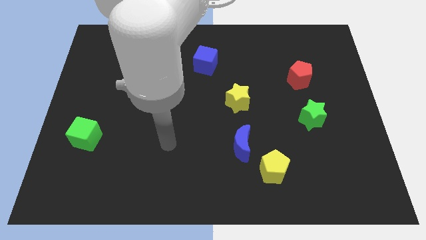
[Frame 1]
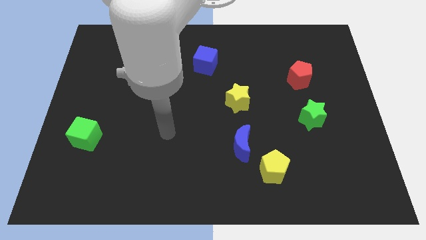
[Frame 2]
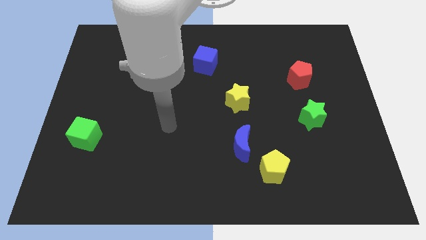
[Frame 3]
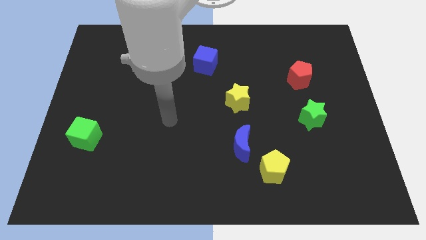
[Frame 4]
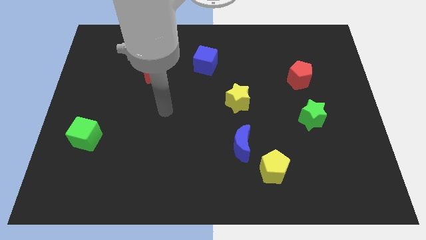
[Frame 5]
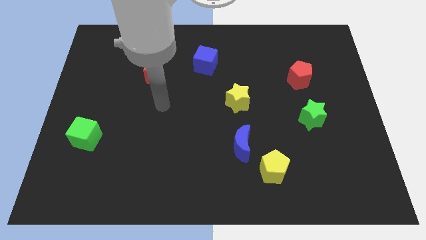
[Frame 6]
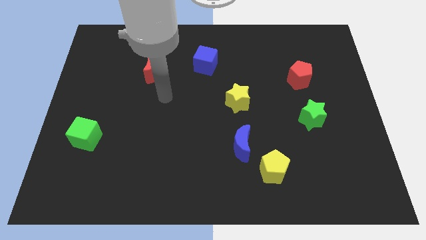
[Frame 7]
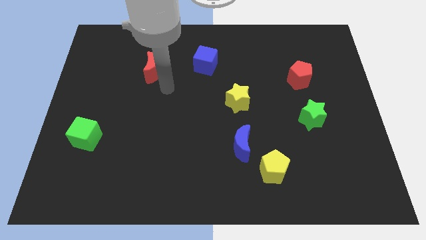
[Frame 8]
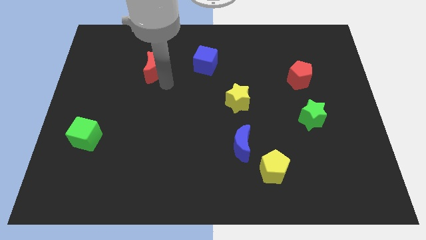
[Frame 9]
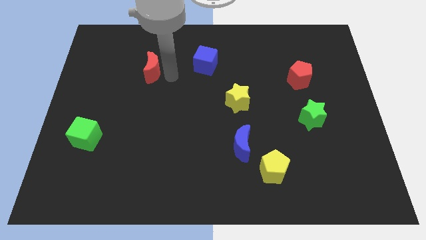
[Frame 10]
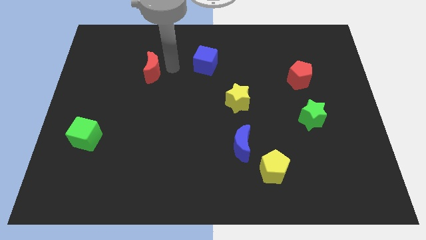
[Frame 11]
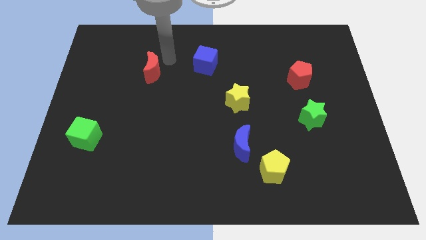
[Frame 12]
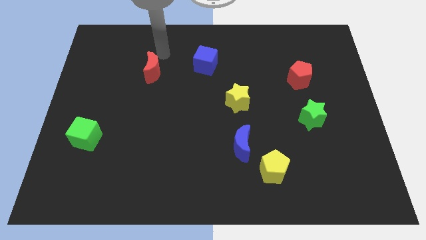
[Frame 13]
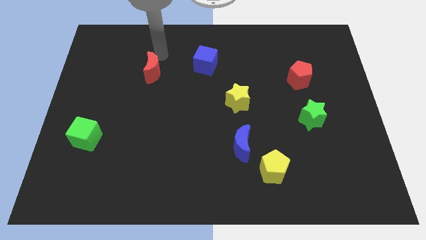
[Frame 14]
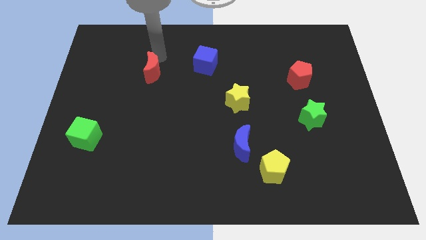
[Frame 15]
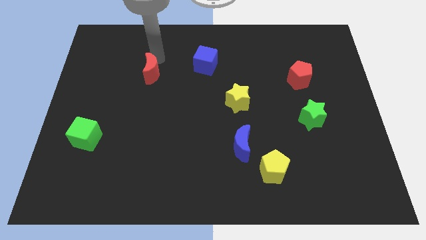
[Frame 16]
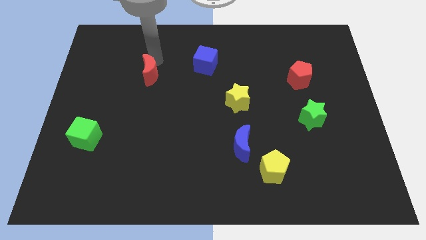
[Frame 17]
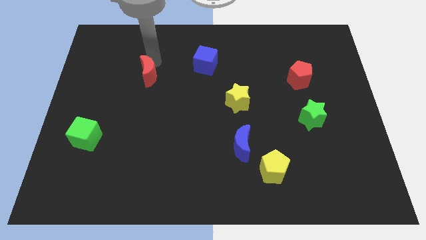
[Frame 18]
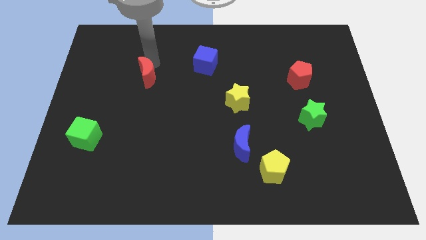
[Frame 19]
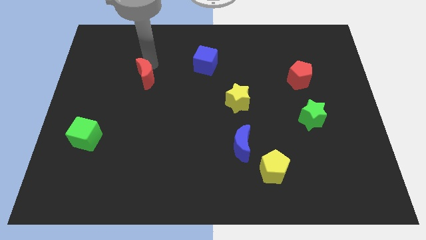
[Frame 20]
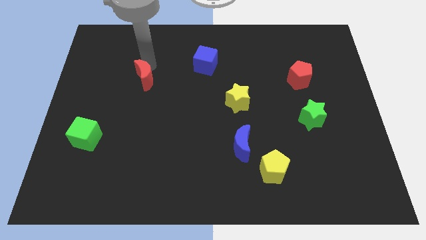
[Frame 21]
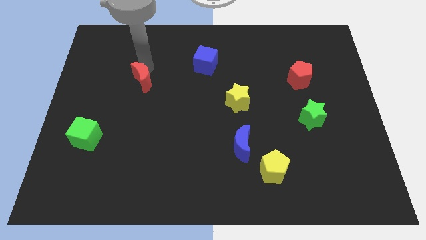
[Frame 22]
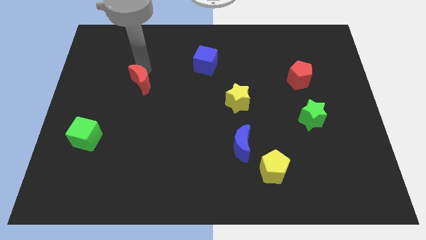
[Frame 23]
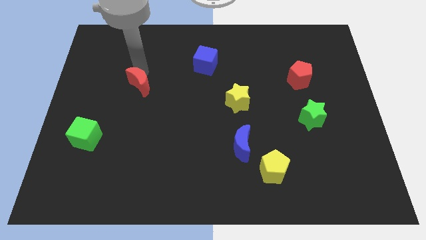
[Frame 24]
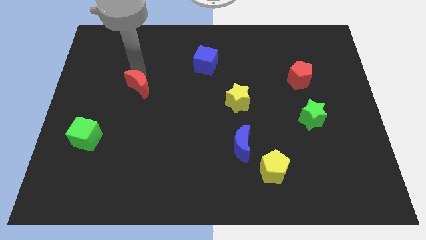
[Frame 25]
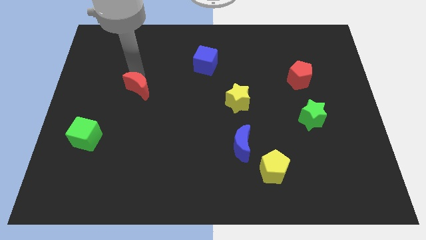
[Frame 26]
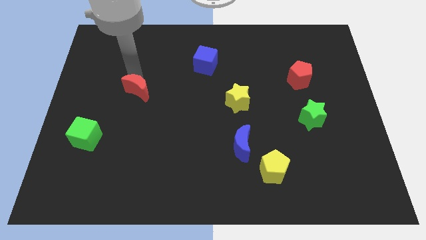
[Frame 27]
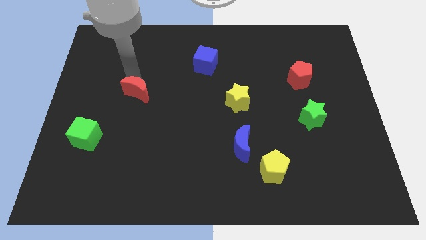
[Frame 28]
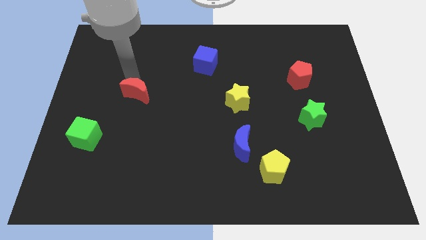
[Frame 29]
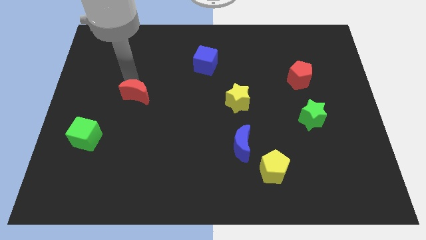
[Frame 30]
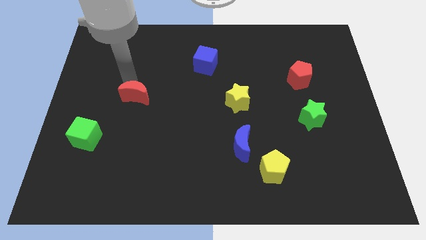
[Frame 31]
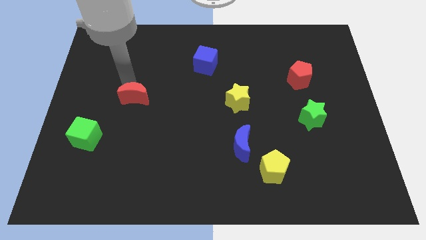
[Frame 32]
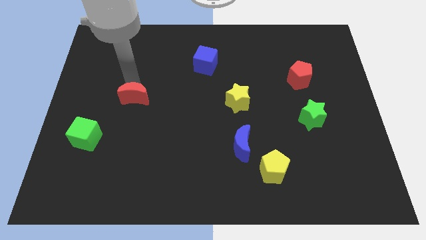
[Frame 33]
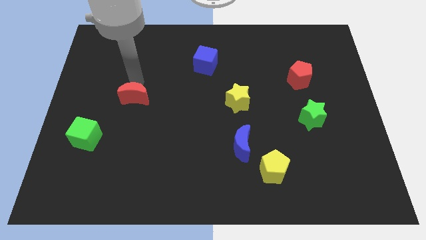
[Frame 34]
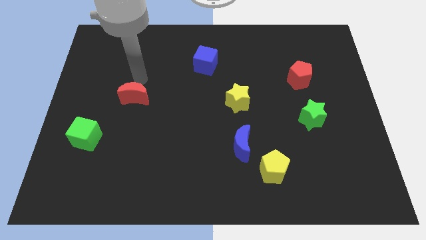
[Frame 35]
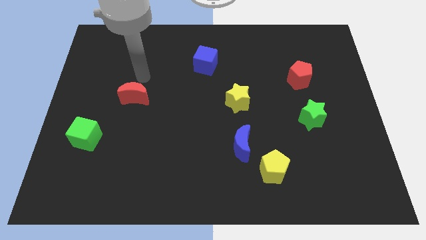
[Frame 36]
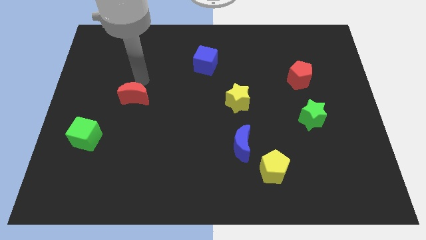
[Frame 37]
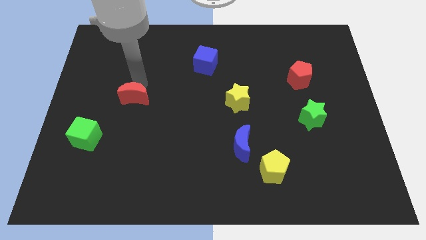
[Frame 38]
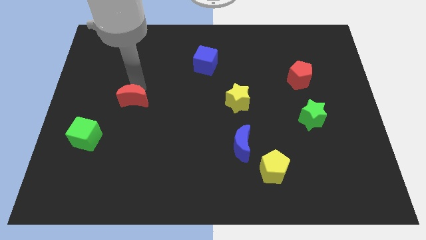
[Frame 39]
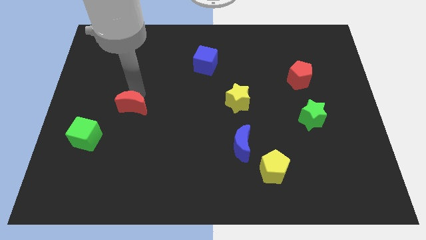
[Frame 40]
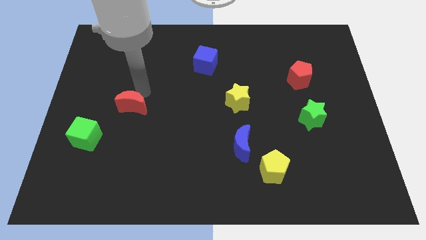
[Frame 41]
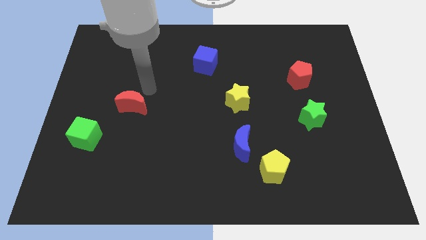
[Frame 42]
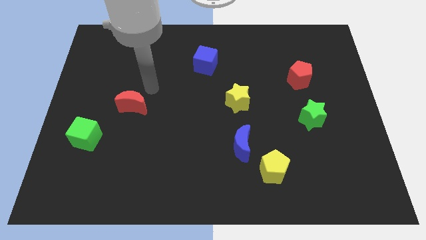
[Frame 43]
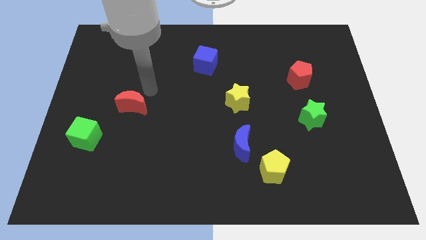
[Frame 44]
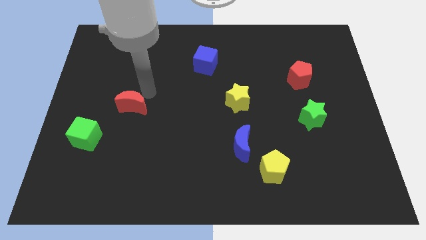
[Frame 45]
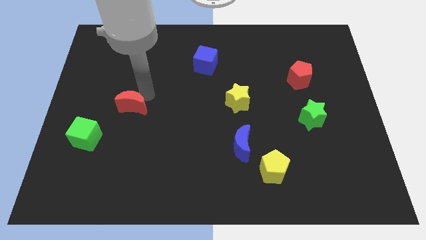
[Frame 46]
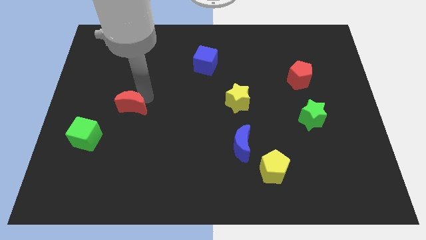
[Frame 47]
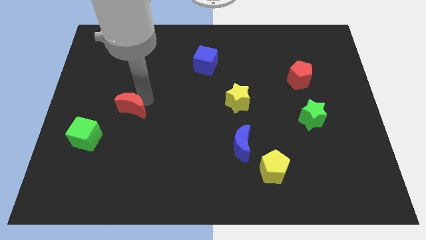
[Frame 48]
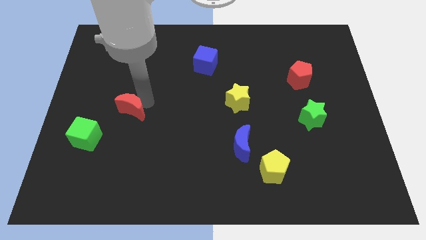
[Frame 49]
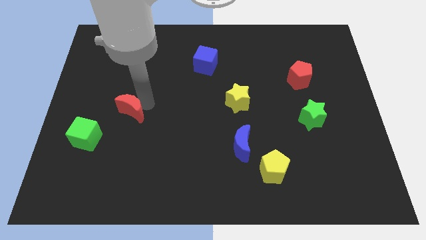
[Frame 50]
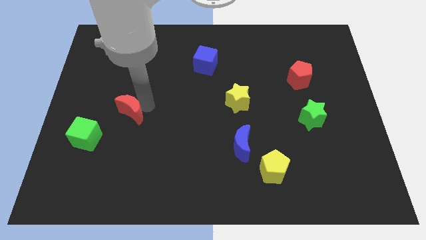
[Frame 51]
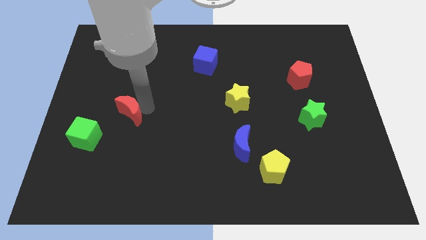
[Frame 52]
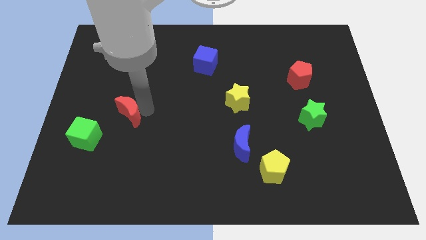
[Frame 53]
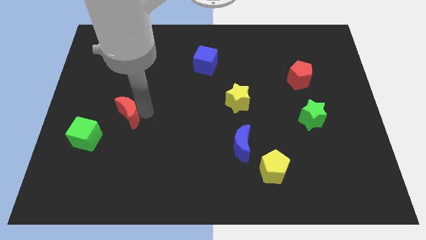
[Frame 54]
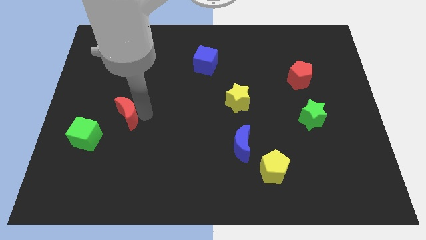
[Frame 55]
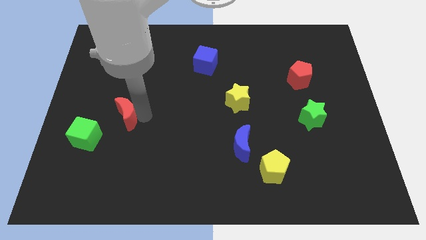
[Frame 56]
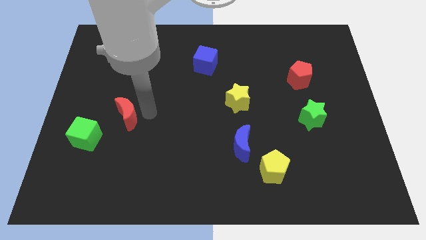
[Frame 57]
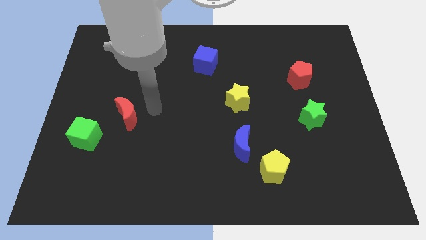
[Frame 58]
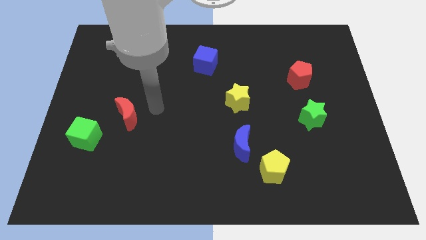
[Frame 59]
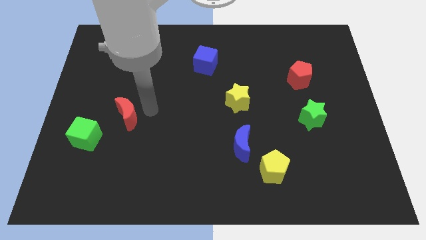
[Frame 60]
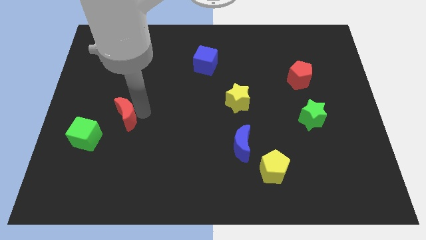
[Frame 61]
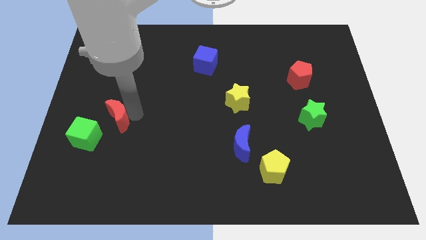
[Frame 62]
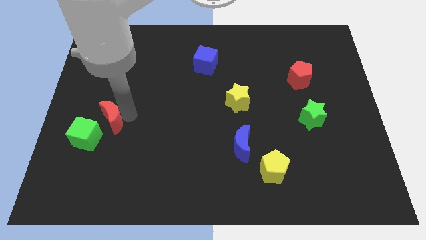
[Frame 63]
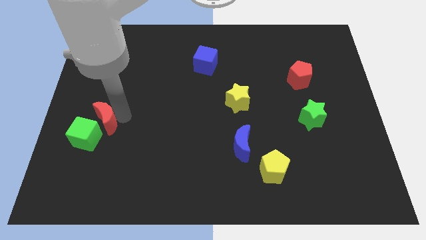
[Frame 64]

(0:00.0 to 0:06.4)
push the red moon next to the green cube

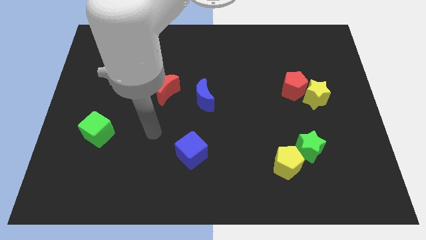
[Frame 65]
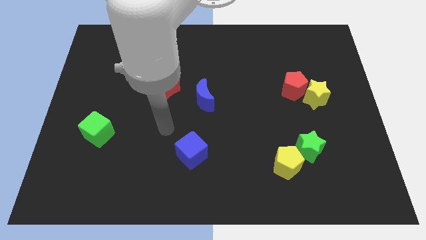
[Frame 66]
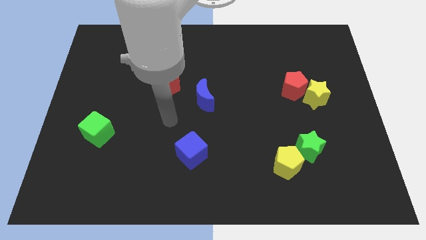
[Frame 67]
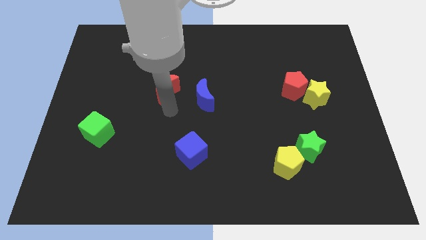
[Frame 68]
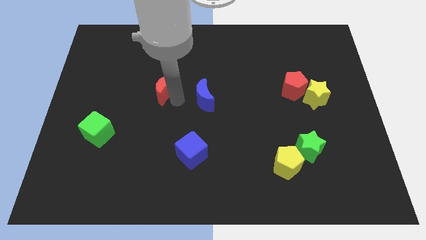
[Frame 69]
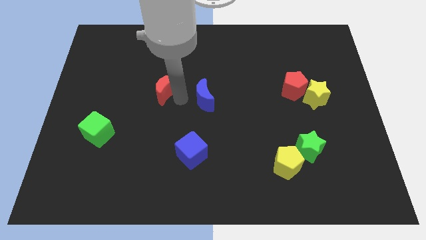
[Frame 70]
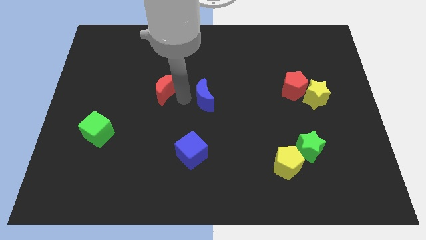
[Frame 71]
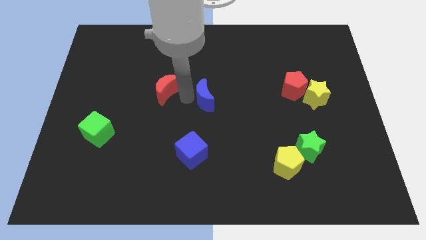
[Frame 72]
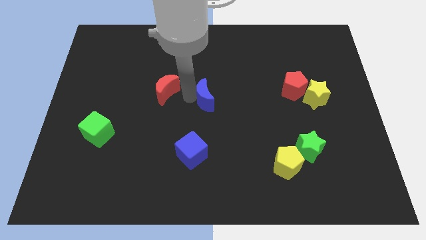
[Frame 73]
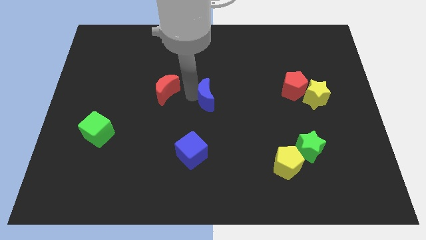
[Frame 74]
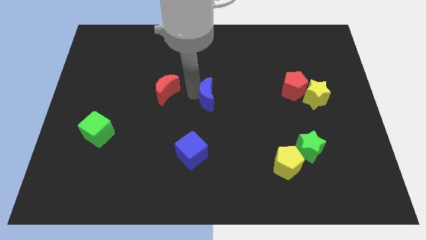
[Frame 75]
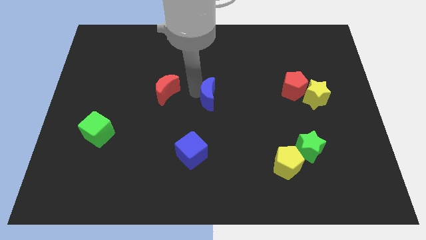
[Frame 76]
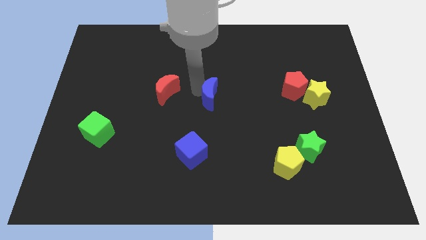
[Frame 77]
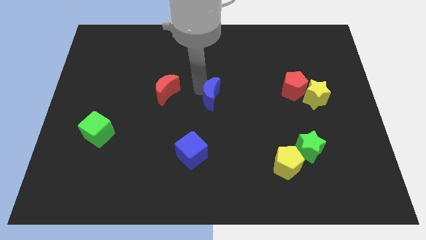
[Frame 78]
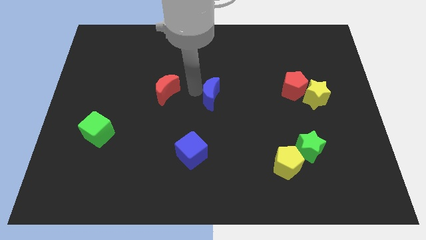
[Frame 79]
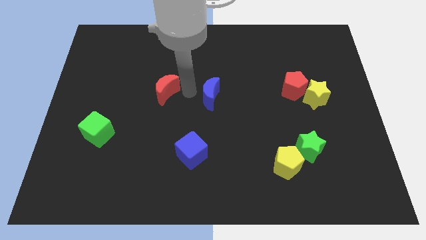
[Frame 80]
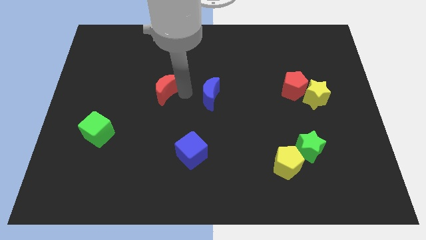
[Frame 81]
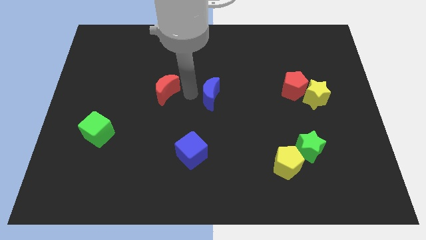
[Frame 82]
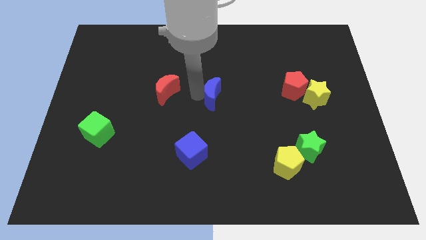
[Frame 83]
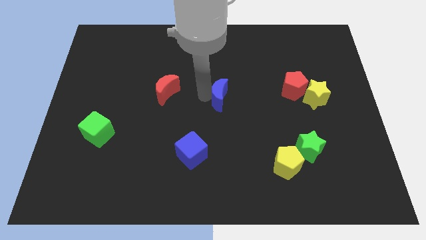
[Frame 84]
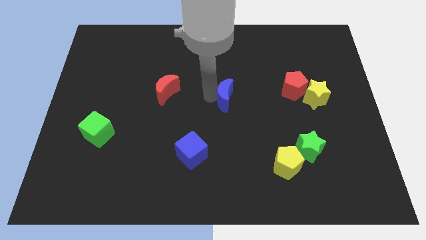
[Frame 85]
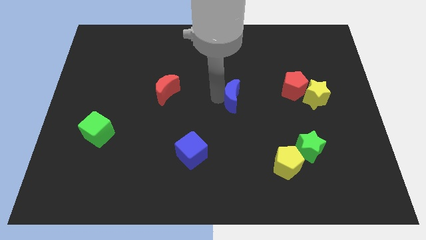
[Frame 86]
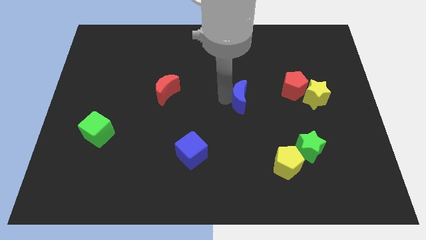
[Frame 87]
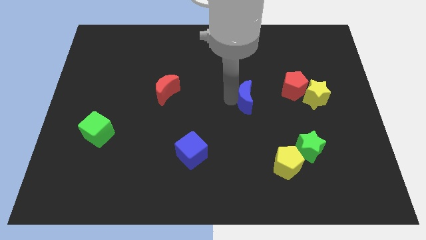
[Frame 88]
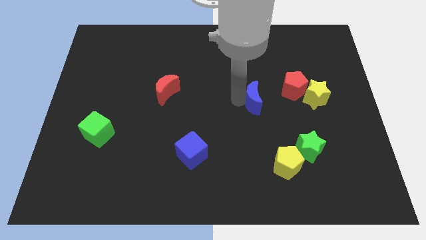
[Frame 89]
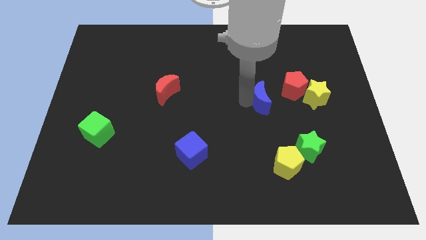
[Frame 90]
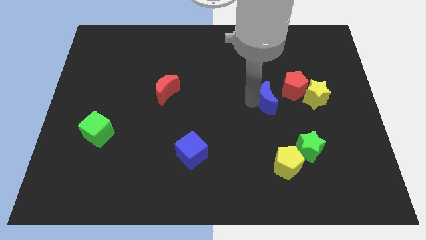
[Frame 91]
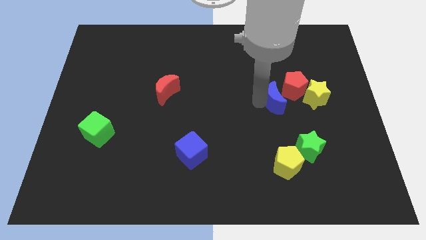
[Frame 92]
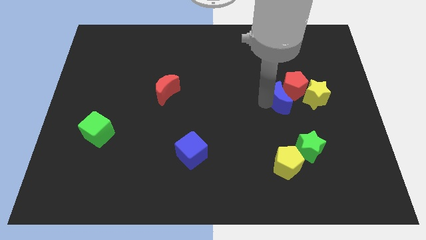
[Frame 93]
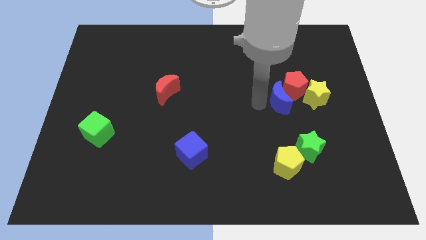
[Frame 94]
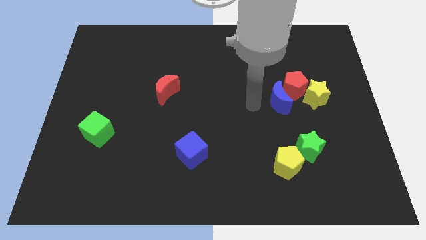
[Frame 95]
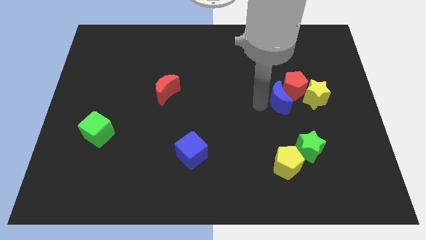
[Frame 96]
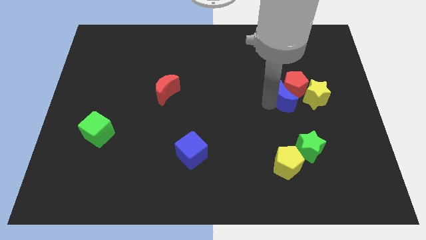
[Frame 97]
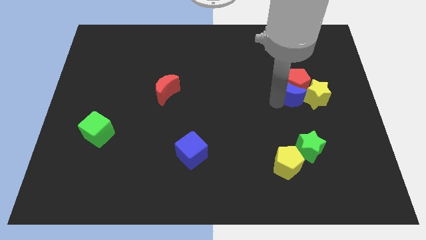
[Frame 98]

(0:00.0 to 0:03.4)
move the blue moon next to the yellow star
